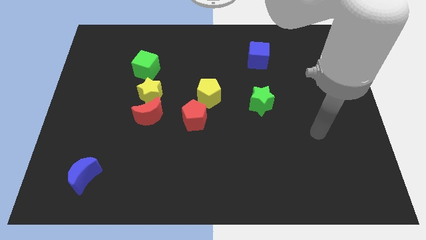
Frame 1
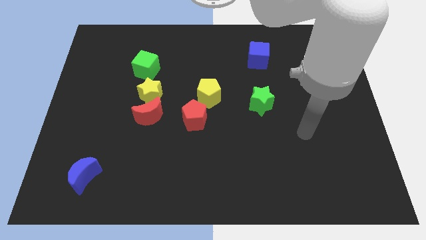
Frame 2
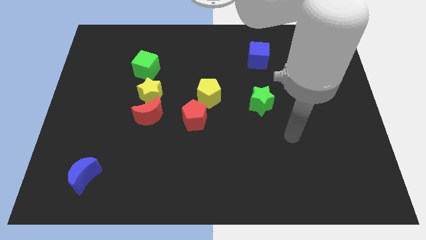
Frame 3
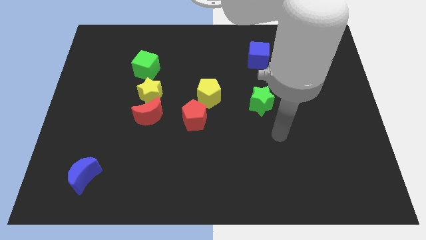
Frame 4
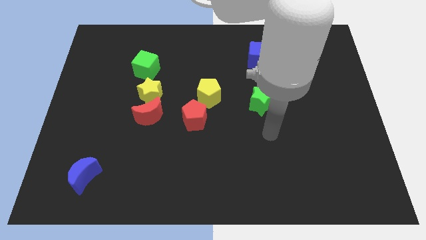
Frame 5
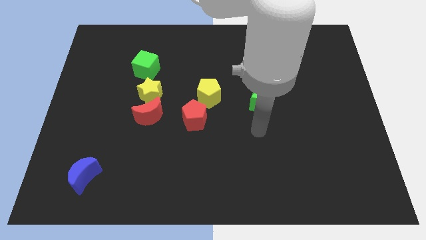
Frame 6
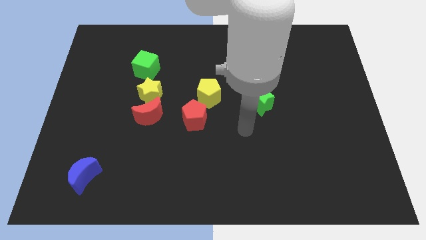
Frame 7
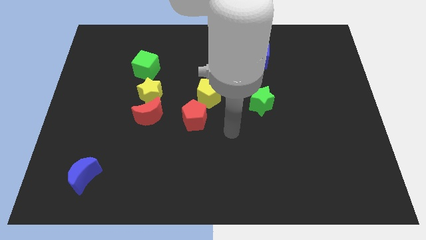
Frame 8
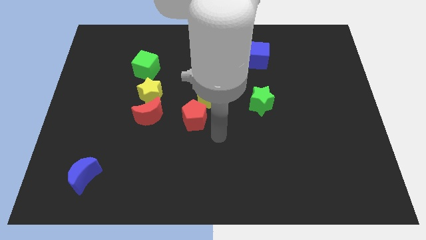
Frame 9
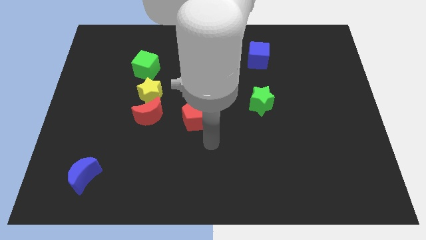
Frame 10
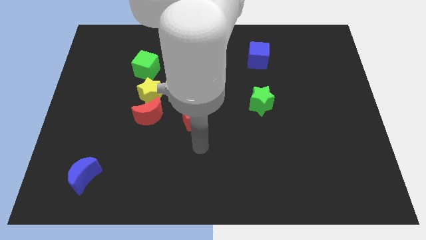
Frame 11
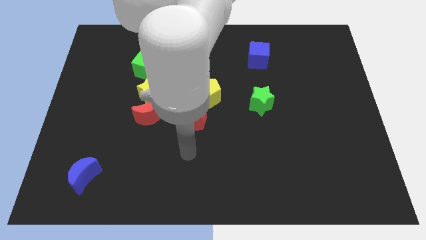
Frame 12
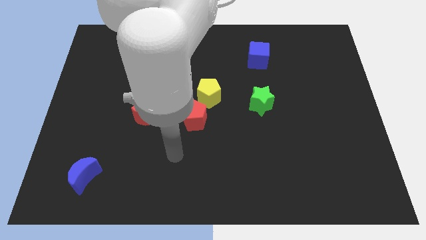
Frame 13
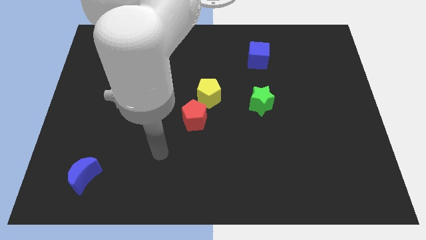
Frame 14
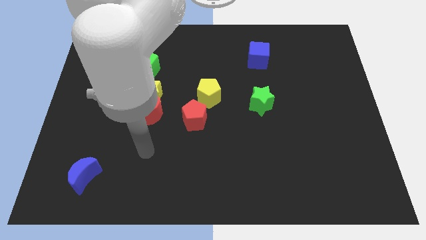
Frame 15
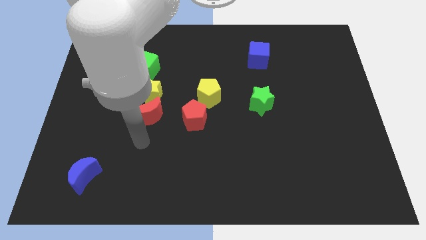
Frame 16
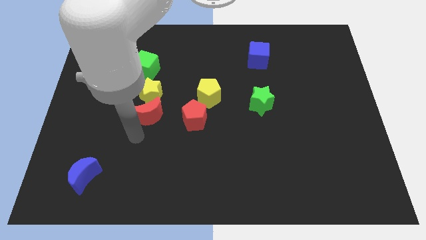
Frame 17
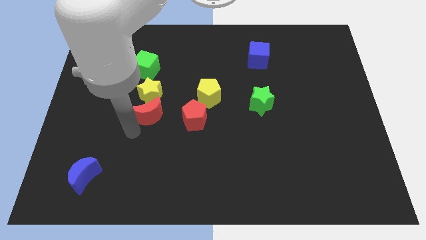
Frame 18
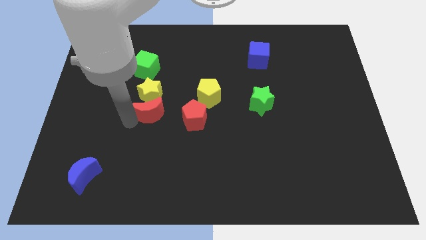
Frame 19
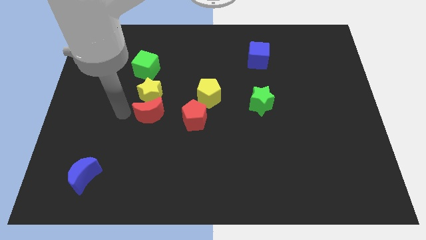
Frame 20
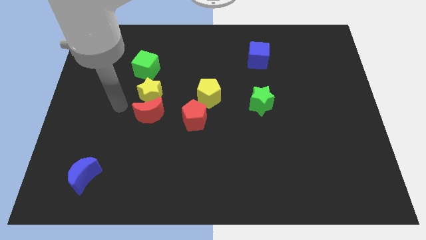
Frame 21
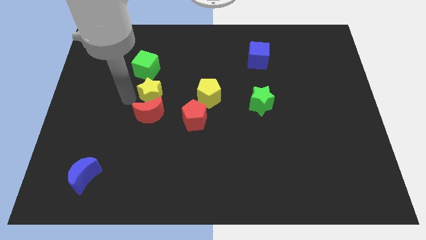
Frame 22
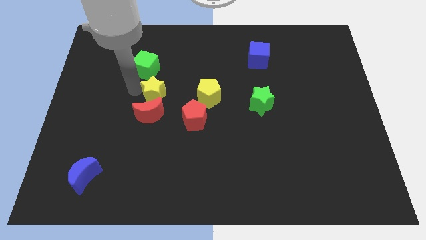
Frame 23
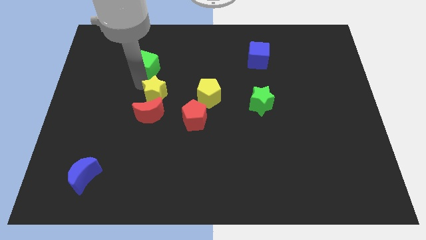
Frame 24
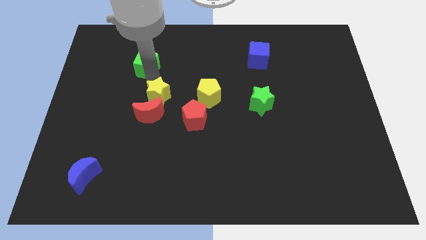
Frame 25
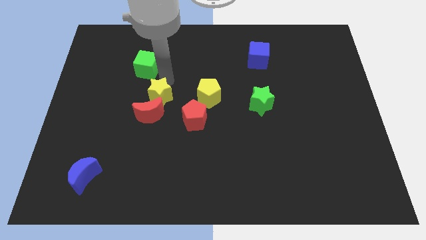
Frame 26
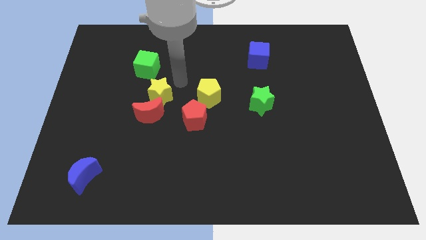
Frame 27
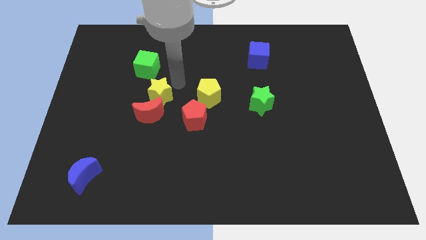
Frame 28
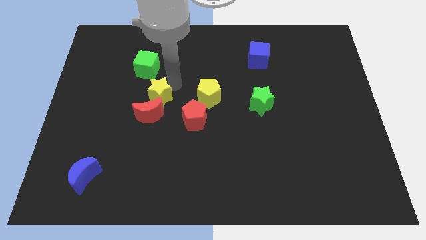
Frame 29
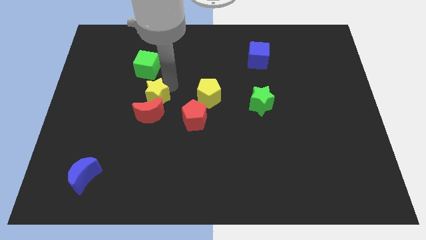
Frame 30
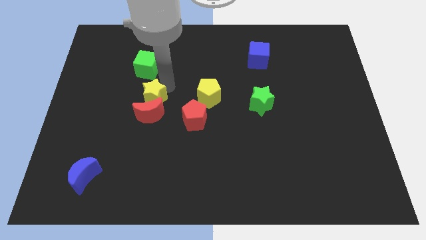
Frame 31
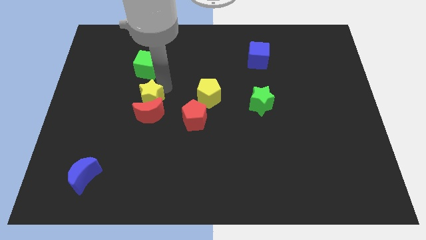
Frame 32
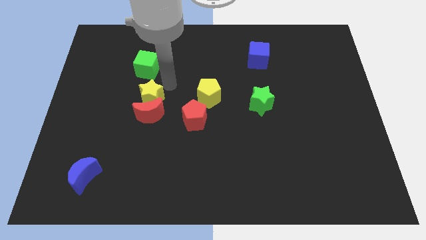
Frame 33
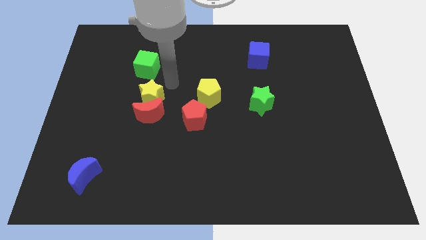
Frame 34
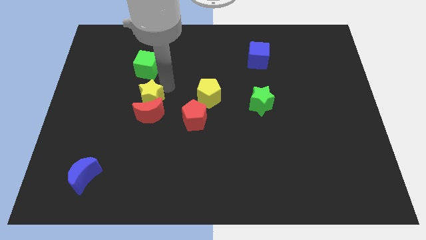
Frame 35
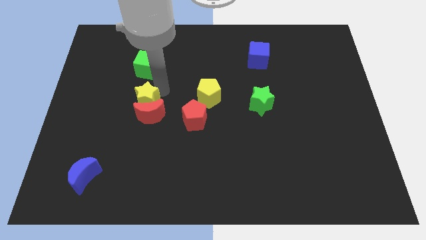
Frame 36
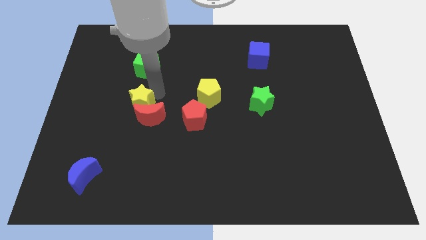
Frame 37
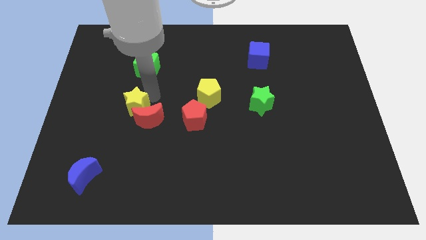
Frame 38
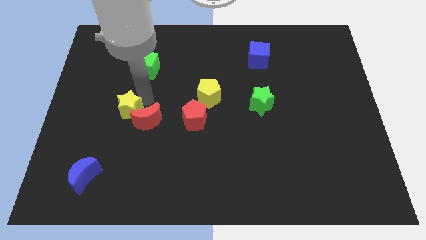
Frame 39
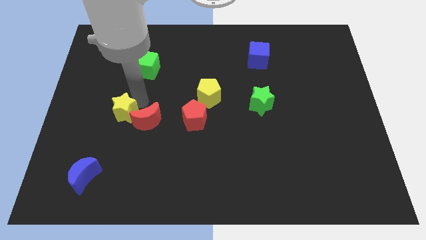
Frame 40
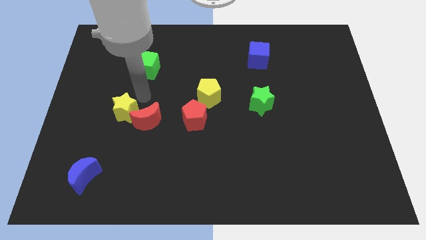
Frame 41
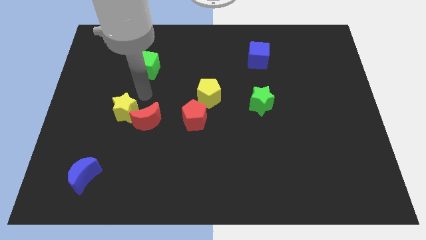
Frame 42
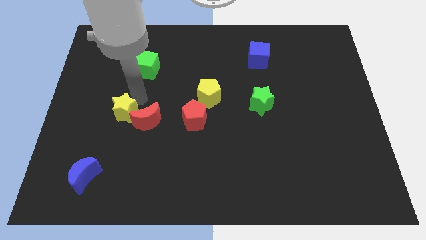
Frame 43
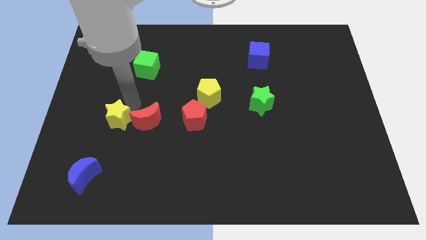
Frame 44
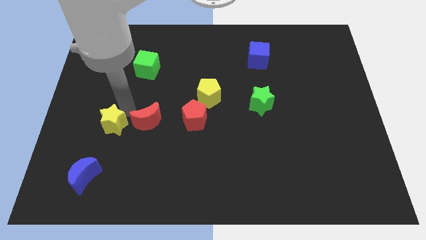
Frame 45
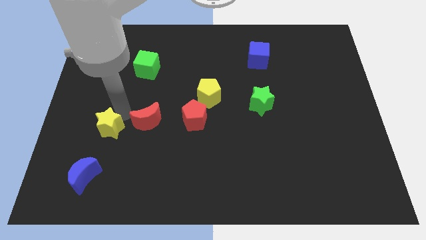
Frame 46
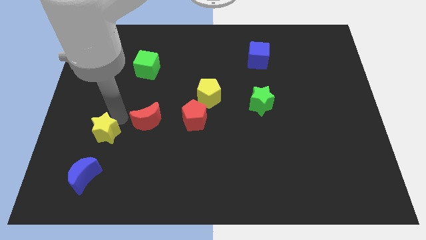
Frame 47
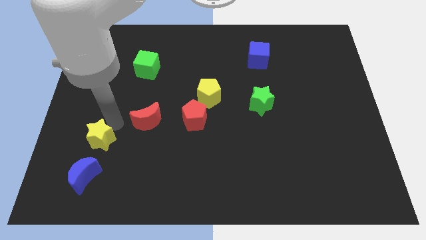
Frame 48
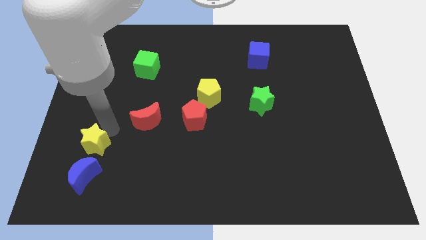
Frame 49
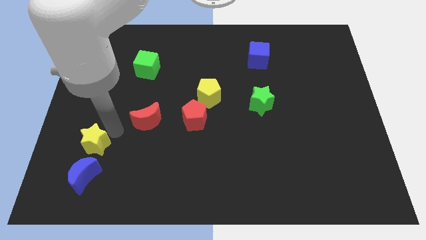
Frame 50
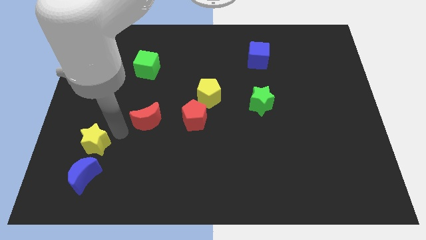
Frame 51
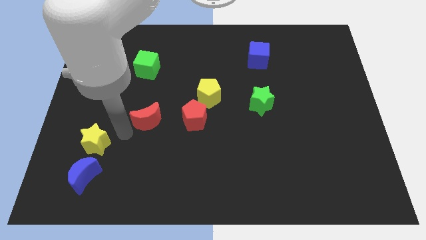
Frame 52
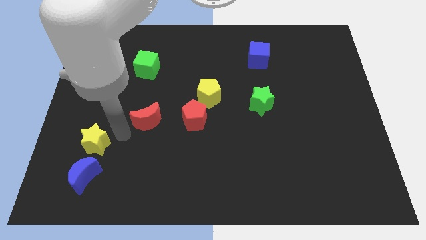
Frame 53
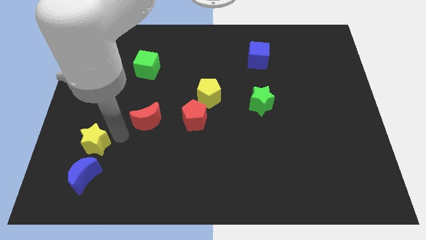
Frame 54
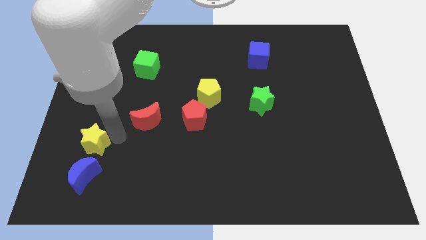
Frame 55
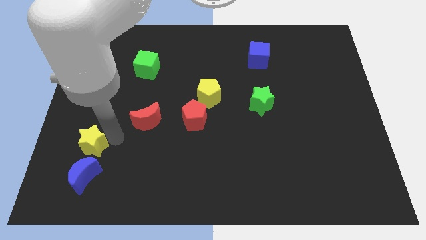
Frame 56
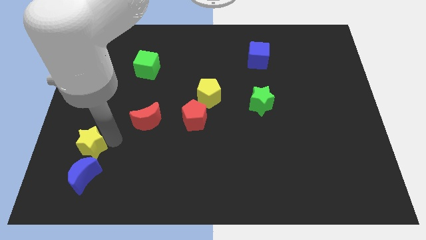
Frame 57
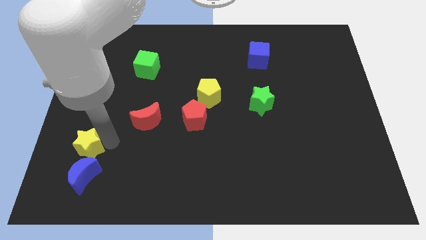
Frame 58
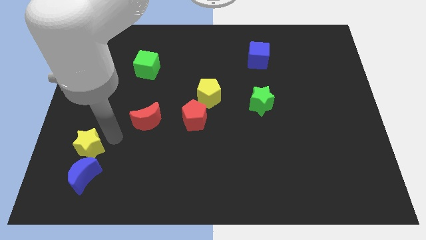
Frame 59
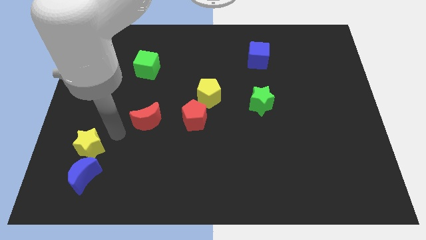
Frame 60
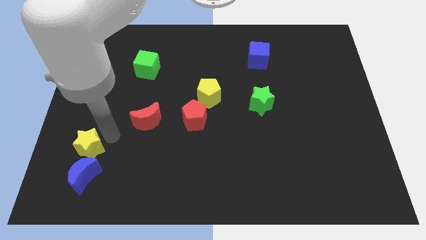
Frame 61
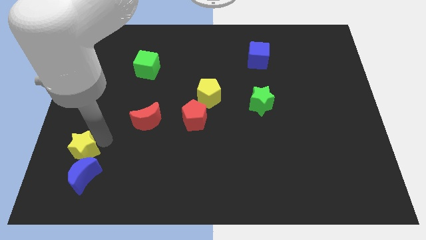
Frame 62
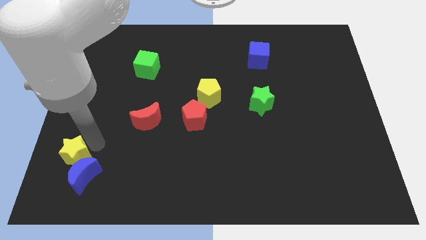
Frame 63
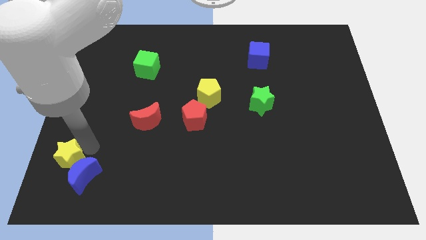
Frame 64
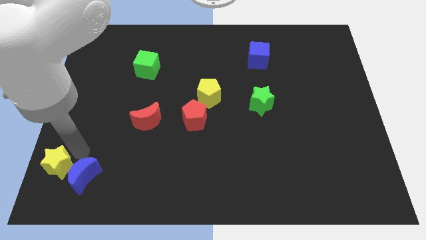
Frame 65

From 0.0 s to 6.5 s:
push the yellow star to the bottom left

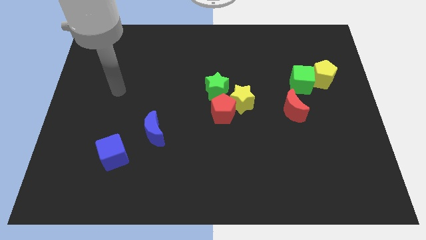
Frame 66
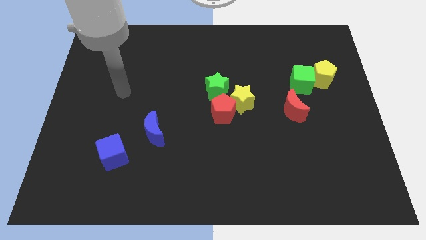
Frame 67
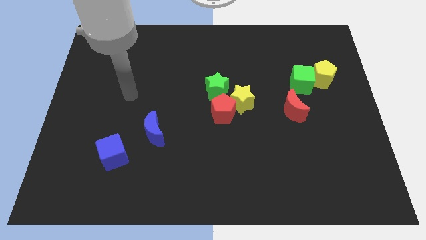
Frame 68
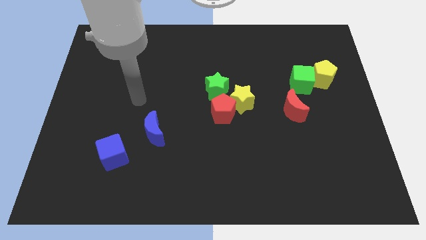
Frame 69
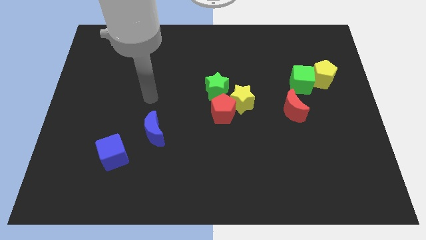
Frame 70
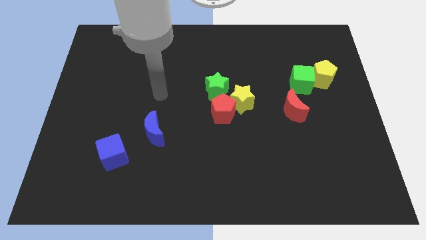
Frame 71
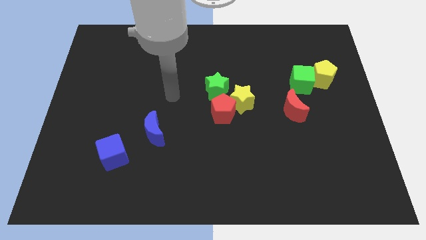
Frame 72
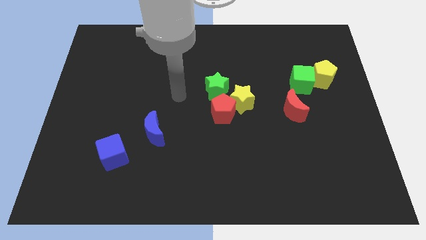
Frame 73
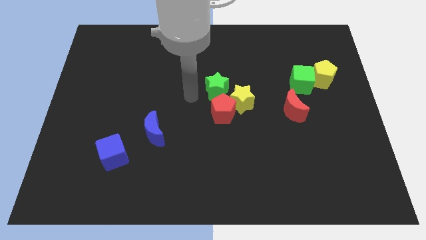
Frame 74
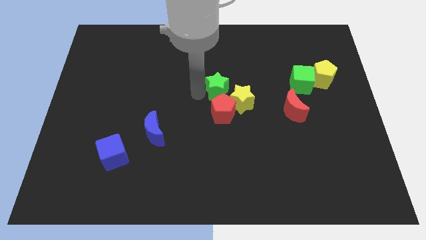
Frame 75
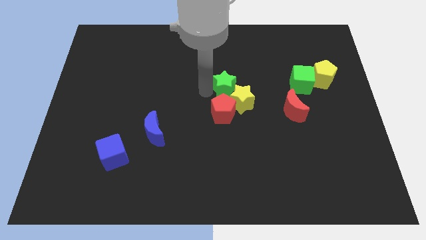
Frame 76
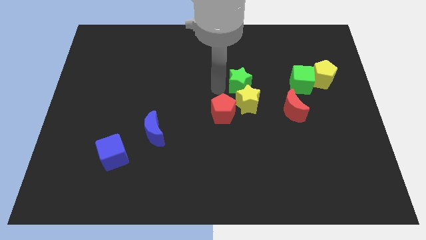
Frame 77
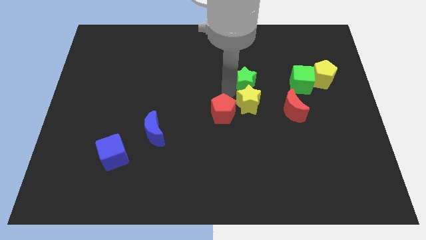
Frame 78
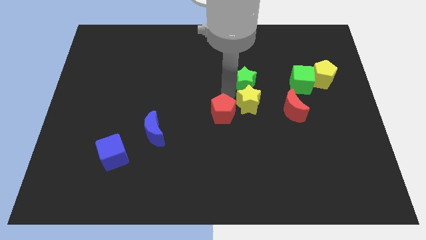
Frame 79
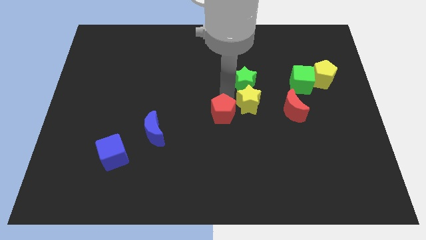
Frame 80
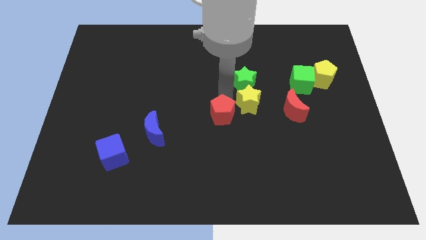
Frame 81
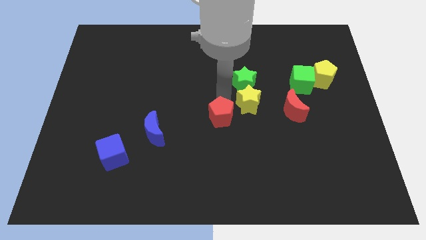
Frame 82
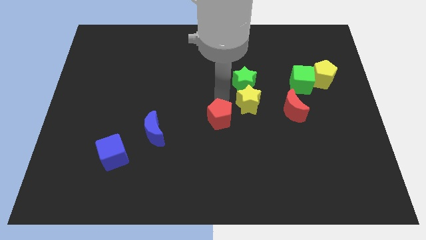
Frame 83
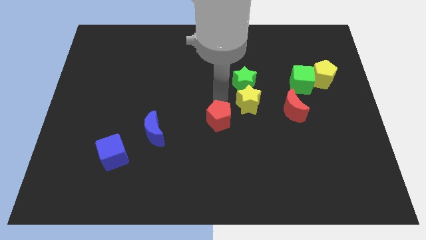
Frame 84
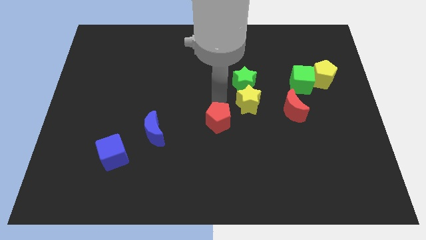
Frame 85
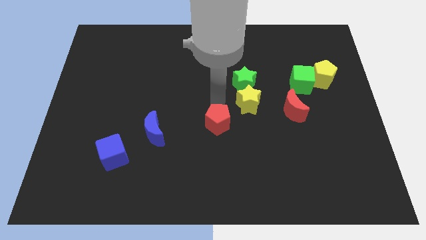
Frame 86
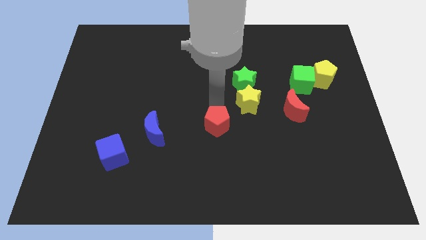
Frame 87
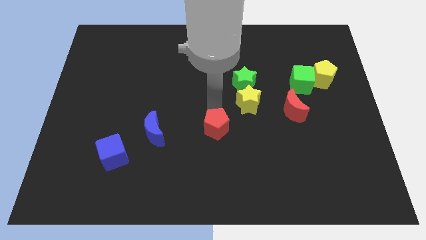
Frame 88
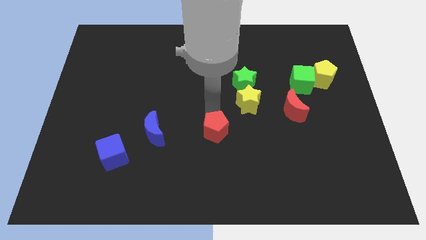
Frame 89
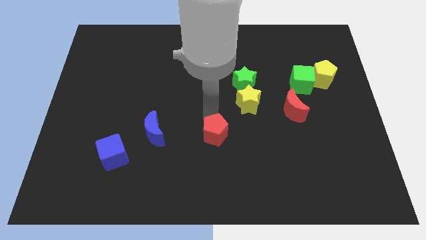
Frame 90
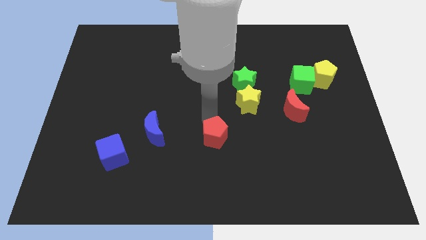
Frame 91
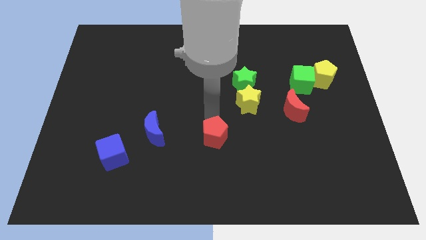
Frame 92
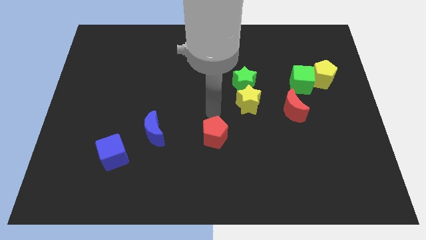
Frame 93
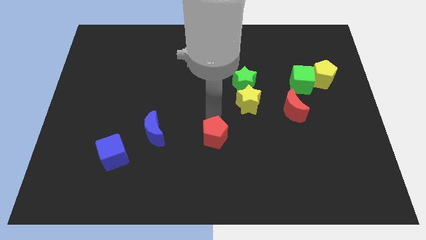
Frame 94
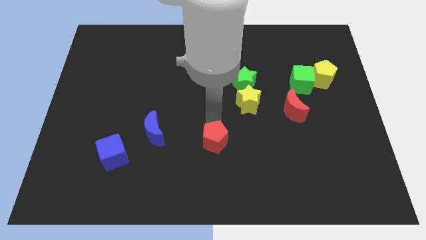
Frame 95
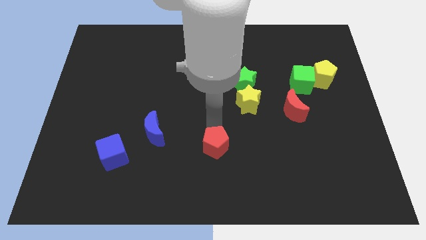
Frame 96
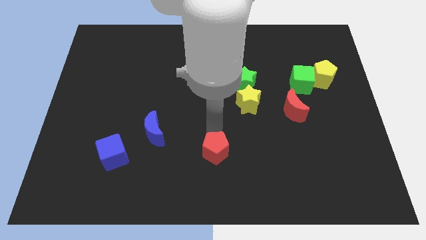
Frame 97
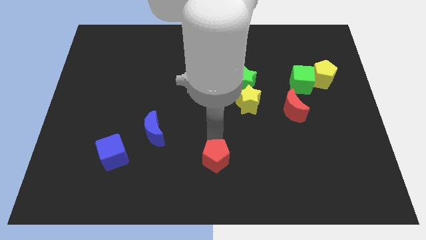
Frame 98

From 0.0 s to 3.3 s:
slide the red pentagon to the bottom side
